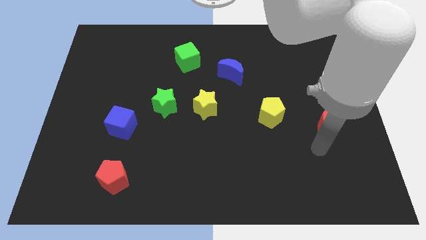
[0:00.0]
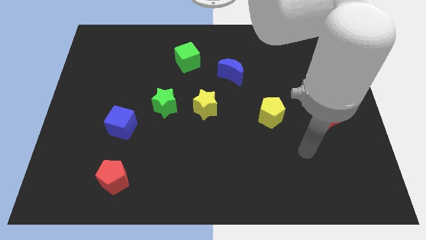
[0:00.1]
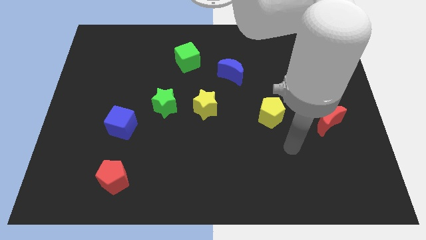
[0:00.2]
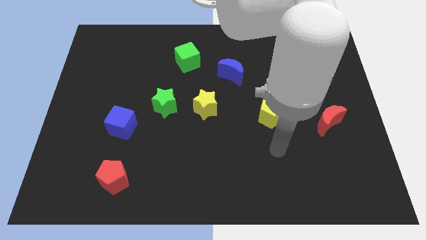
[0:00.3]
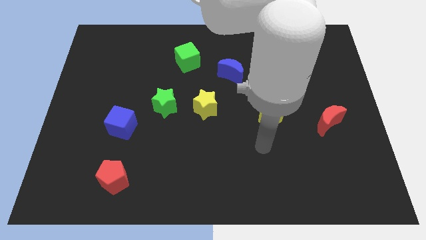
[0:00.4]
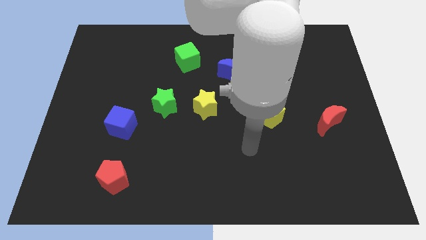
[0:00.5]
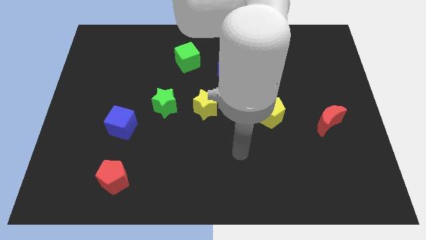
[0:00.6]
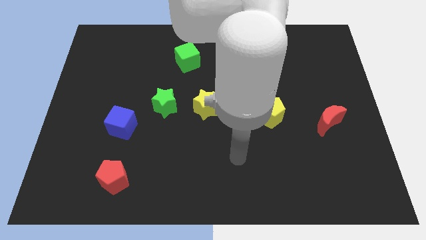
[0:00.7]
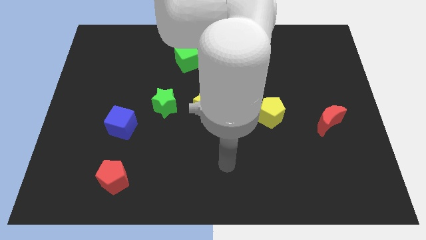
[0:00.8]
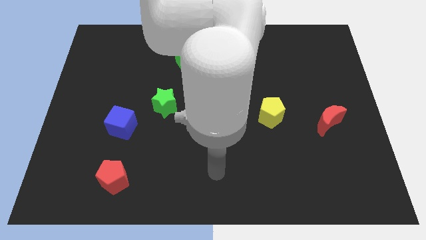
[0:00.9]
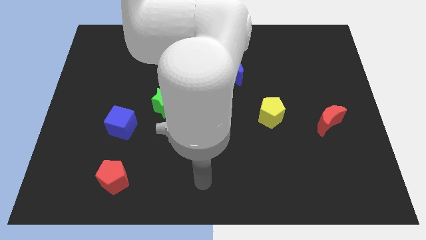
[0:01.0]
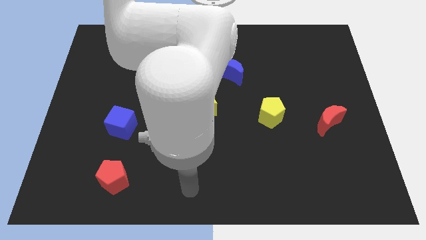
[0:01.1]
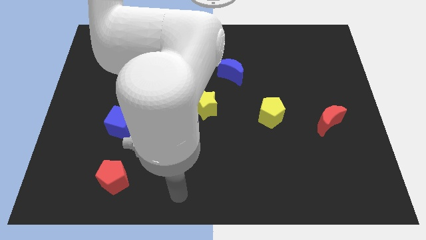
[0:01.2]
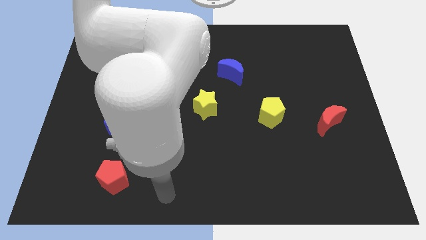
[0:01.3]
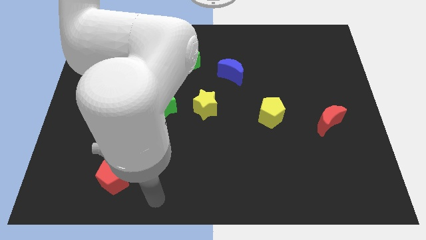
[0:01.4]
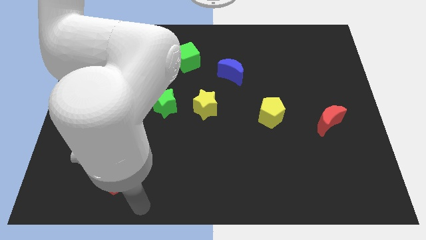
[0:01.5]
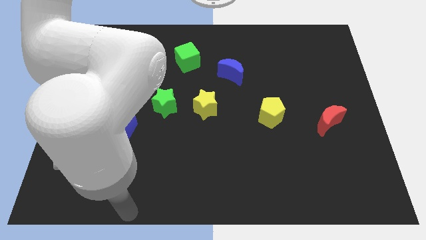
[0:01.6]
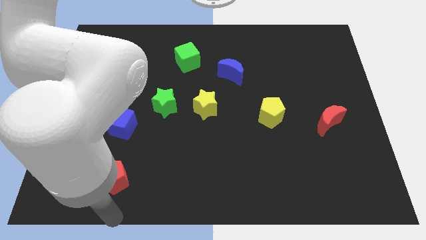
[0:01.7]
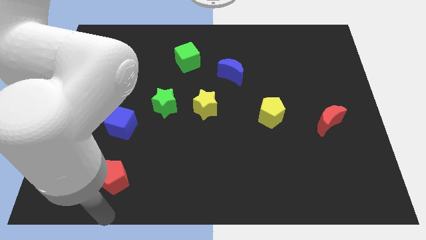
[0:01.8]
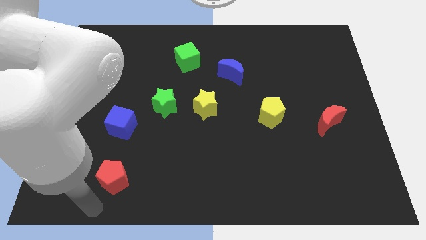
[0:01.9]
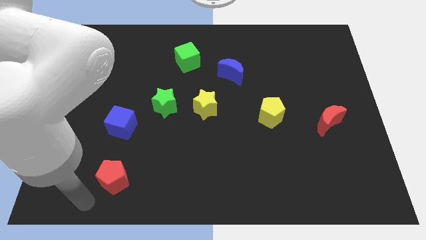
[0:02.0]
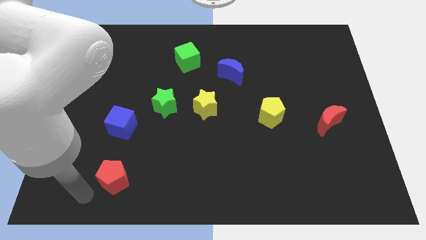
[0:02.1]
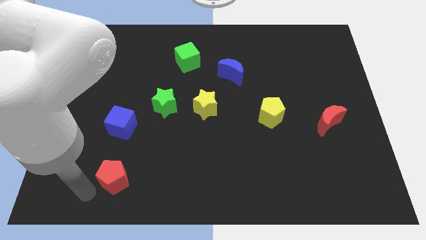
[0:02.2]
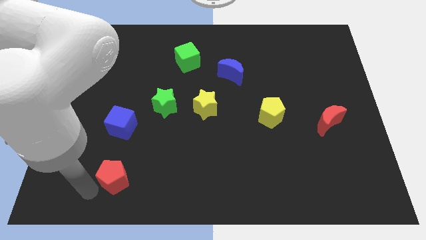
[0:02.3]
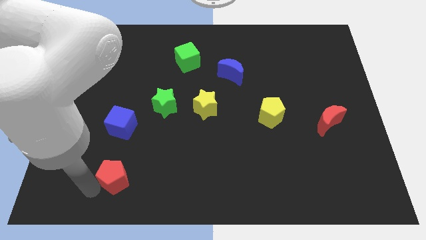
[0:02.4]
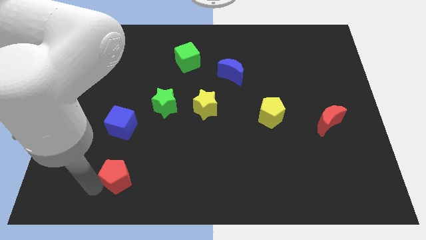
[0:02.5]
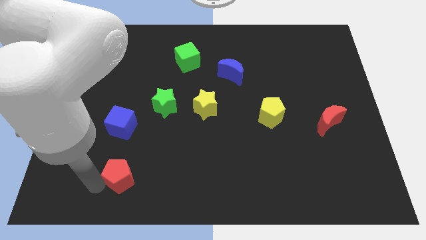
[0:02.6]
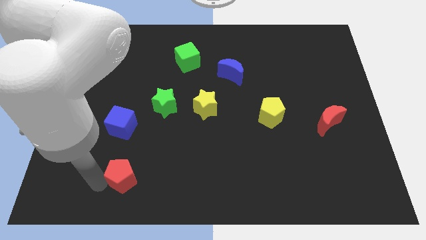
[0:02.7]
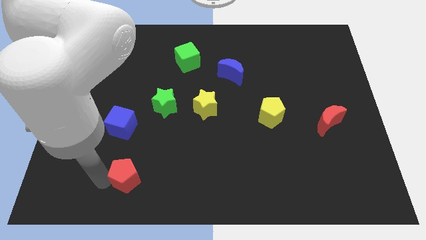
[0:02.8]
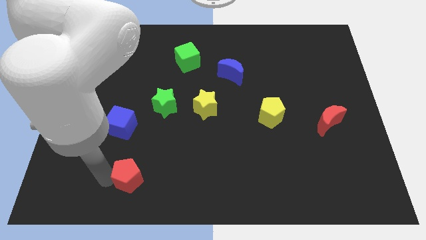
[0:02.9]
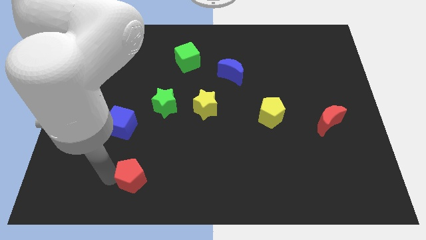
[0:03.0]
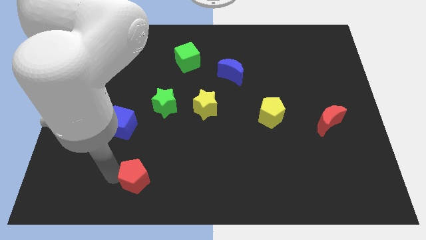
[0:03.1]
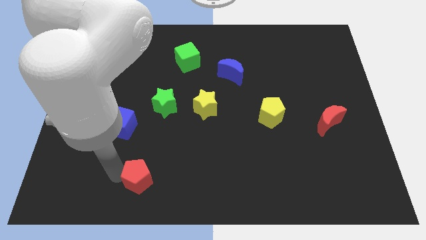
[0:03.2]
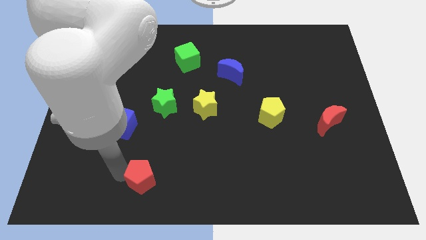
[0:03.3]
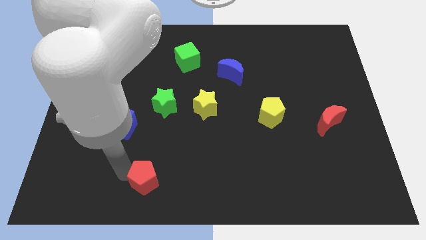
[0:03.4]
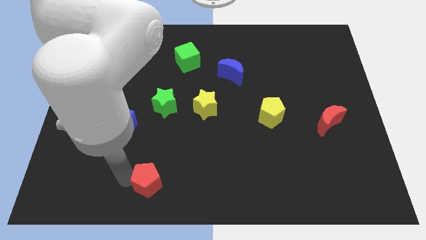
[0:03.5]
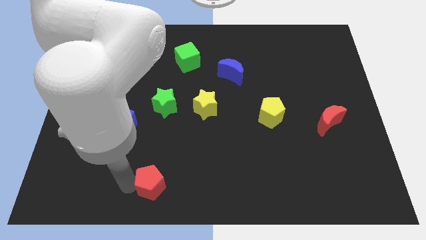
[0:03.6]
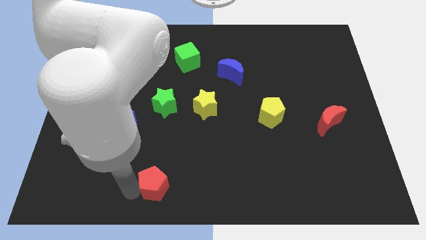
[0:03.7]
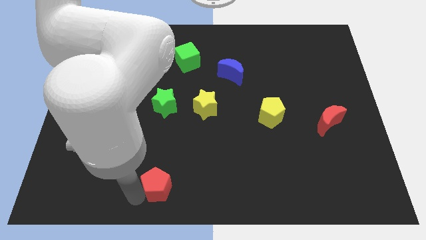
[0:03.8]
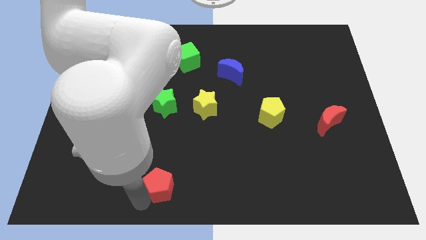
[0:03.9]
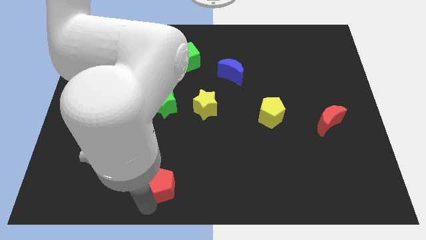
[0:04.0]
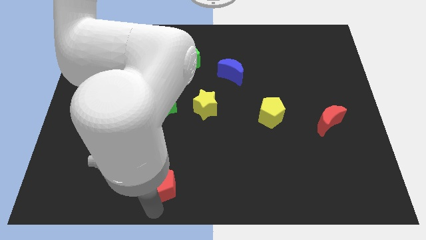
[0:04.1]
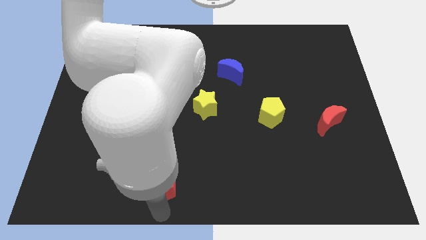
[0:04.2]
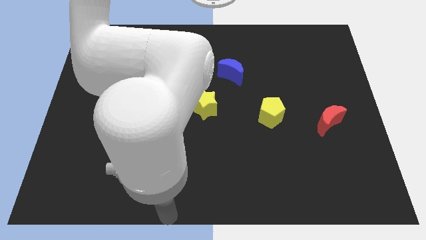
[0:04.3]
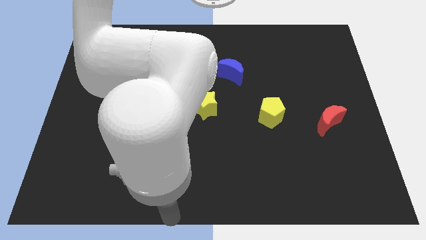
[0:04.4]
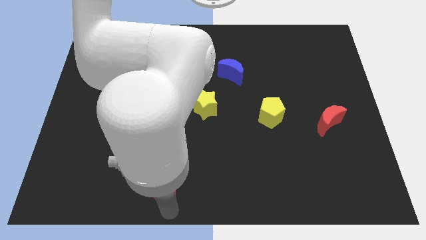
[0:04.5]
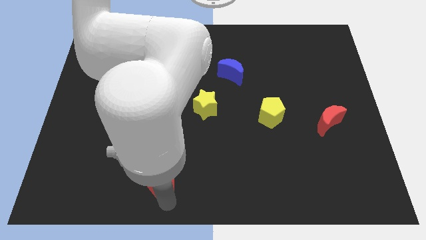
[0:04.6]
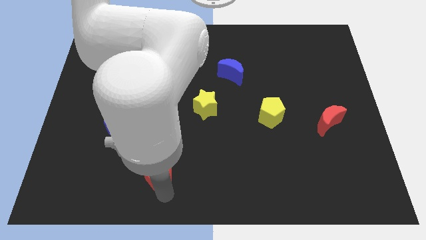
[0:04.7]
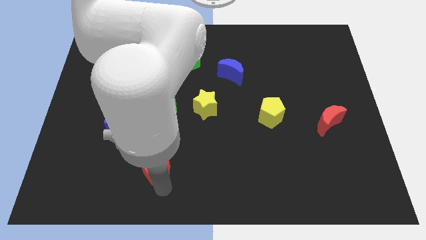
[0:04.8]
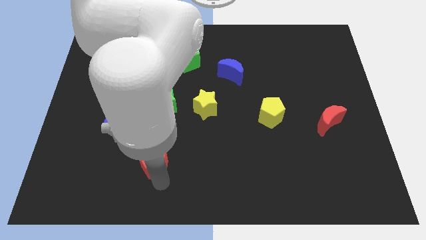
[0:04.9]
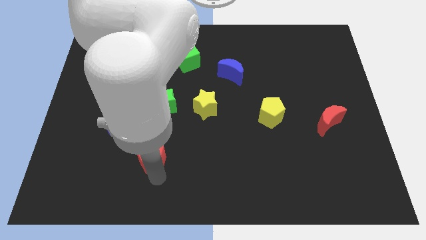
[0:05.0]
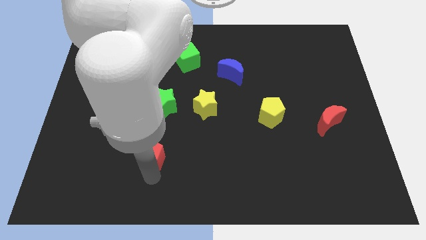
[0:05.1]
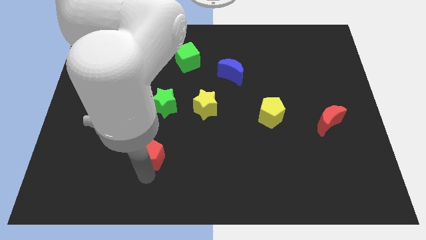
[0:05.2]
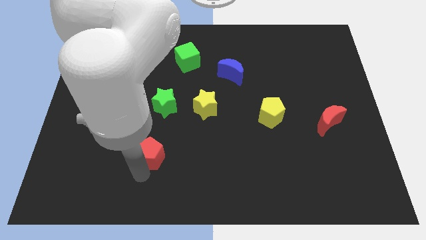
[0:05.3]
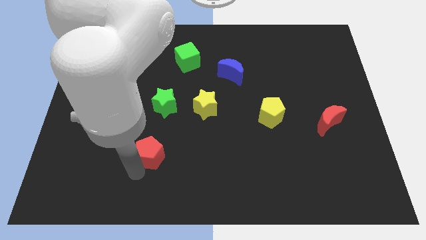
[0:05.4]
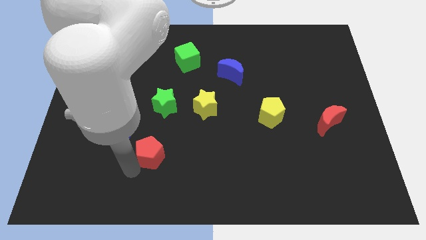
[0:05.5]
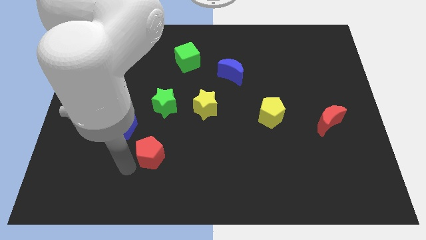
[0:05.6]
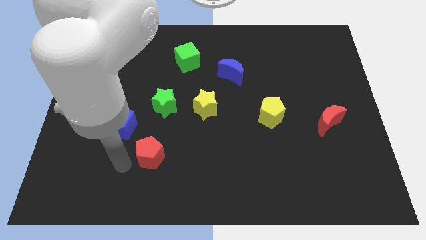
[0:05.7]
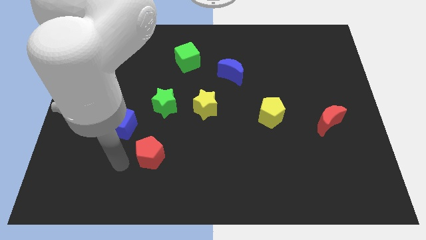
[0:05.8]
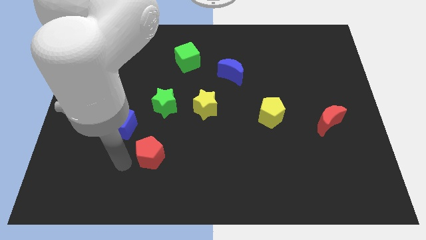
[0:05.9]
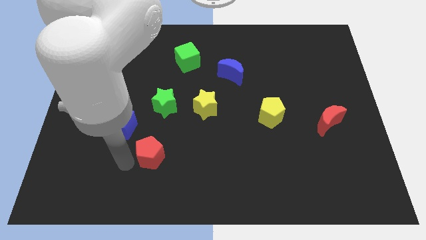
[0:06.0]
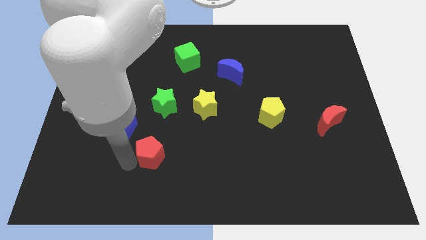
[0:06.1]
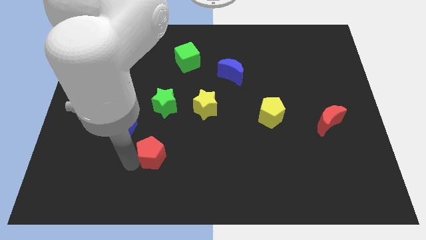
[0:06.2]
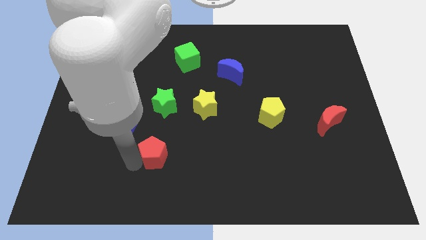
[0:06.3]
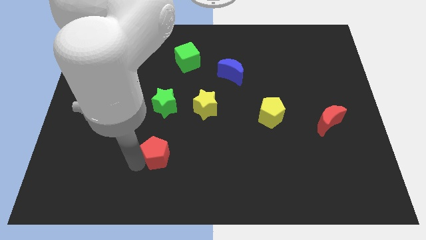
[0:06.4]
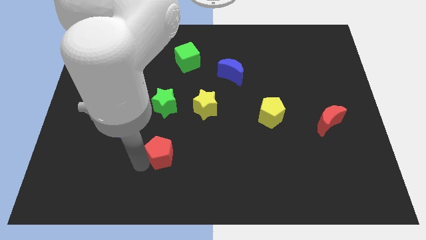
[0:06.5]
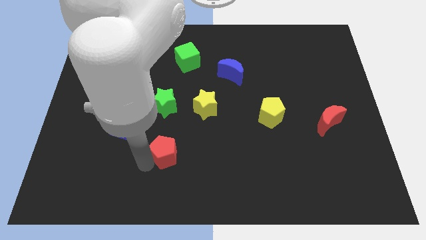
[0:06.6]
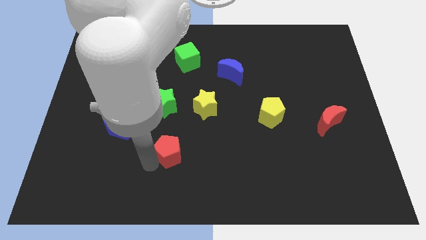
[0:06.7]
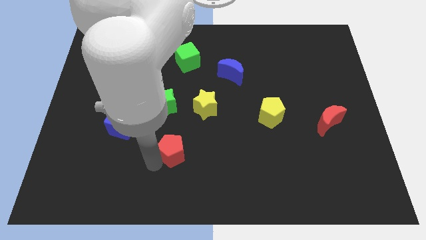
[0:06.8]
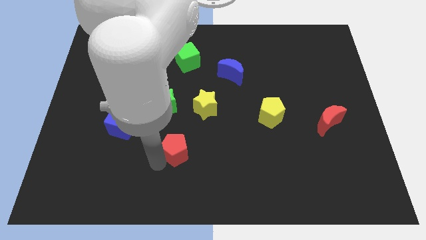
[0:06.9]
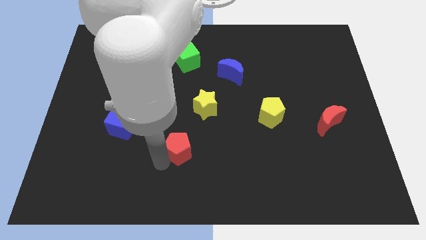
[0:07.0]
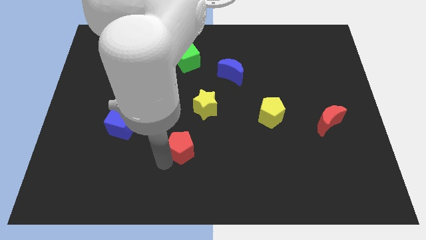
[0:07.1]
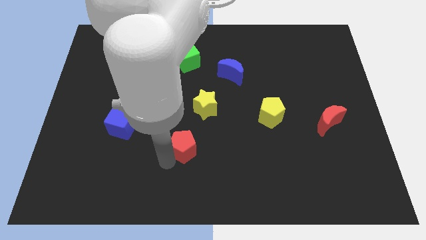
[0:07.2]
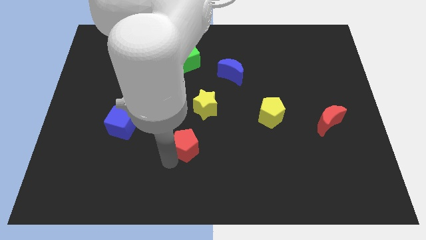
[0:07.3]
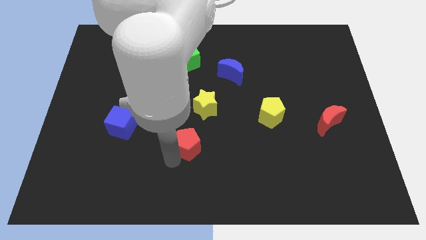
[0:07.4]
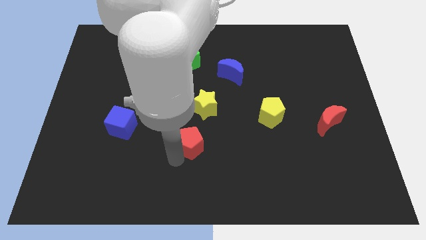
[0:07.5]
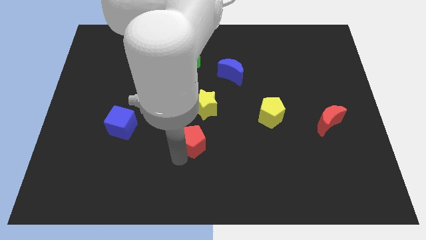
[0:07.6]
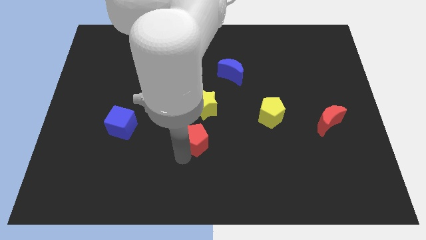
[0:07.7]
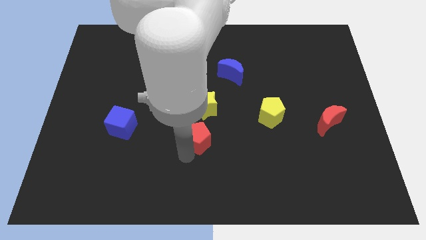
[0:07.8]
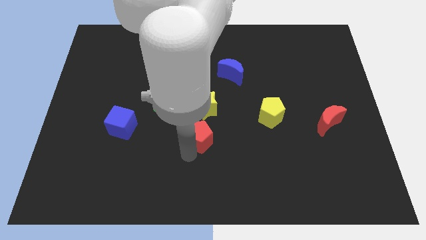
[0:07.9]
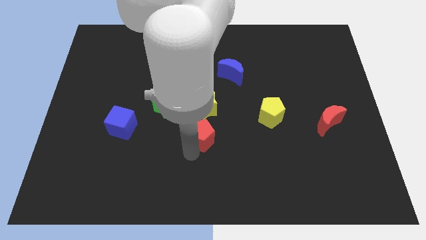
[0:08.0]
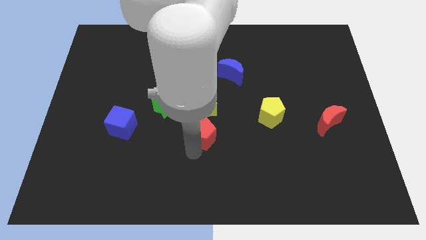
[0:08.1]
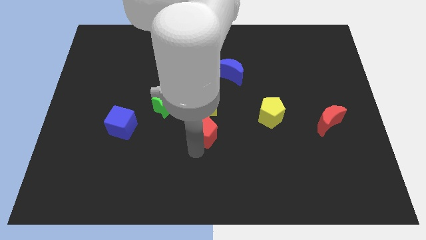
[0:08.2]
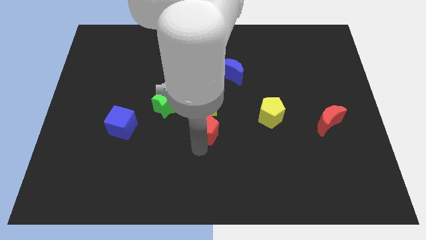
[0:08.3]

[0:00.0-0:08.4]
move the red pentagon upwards and to the right
